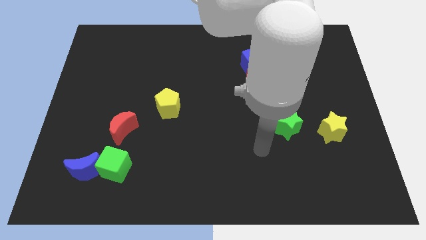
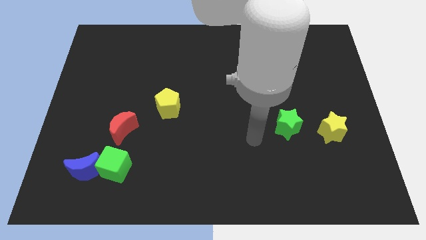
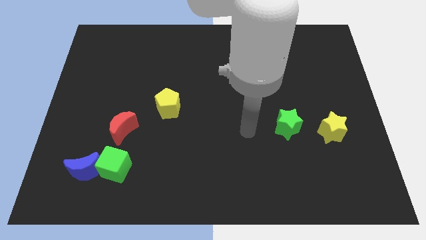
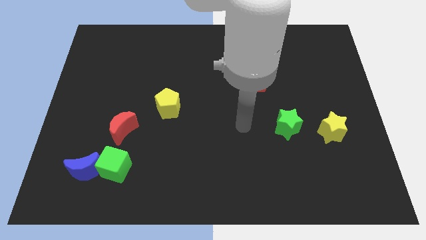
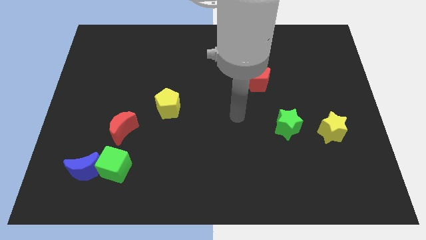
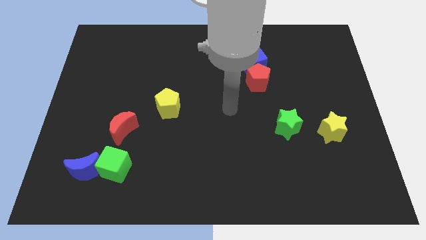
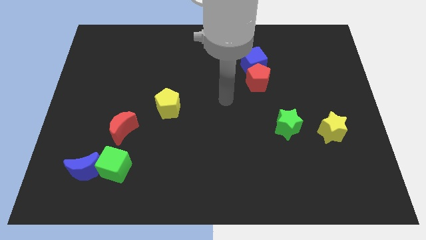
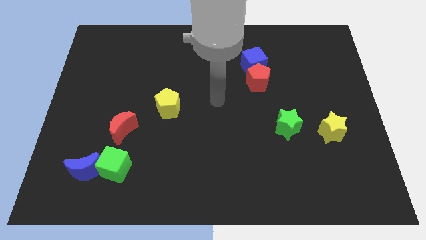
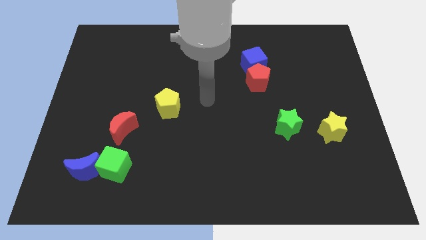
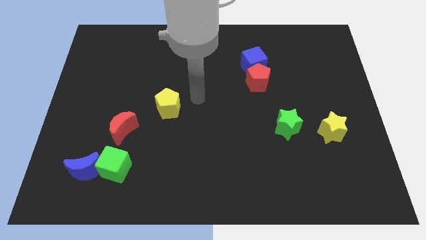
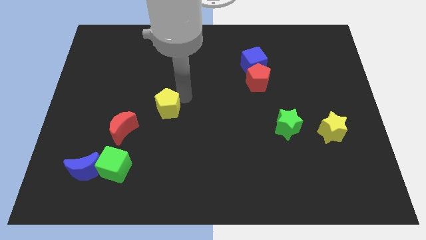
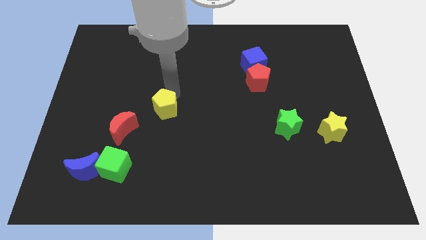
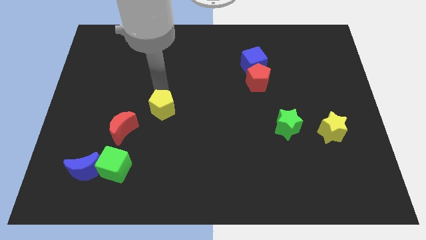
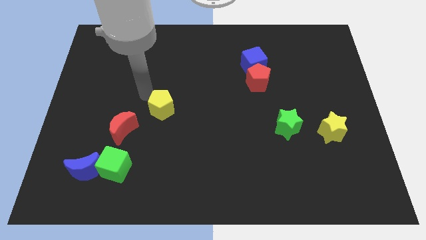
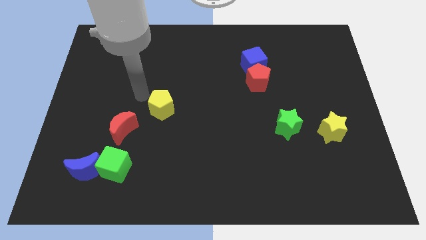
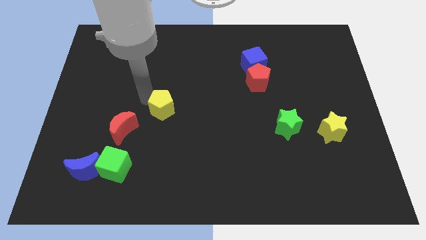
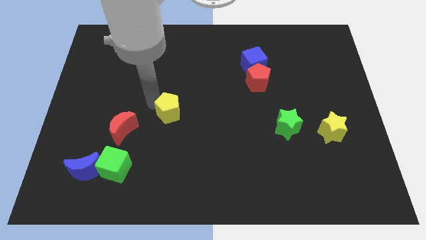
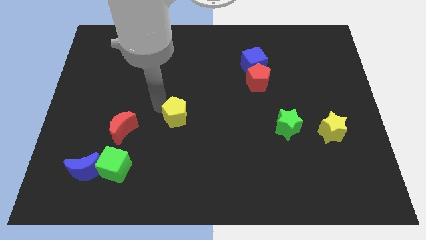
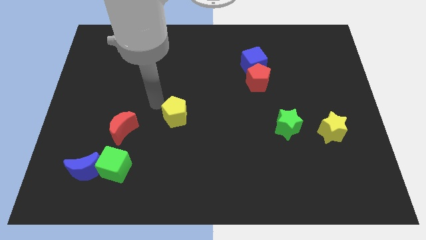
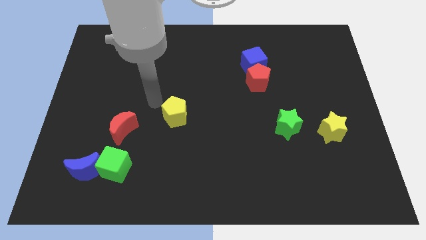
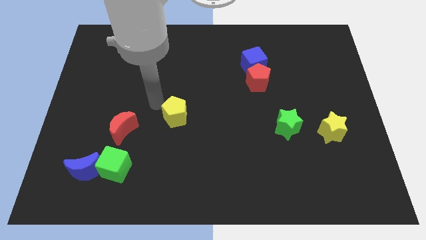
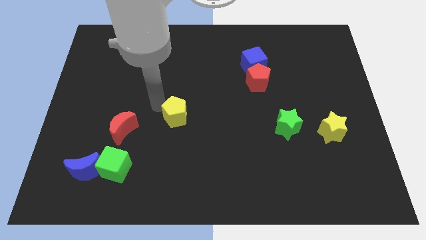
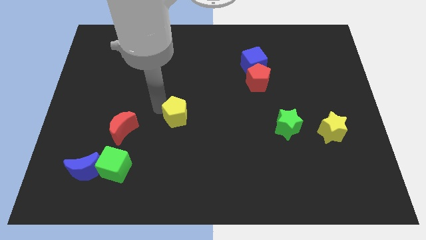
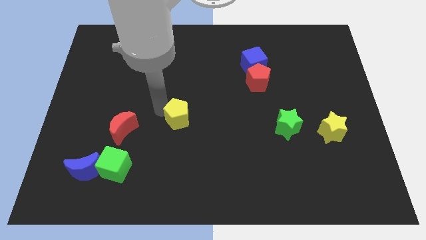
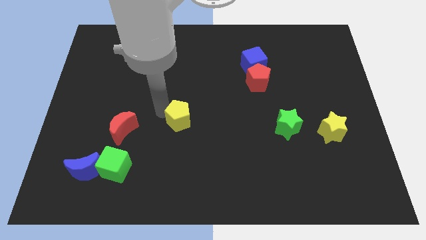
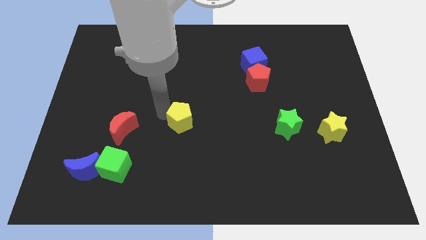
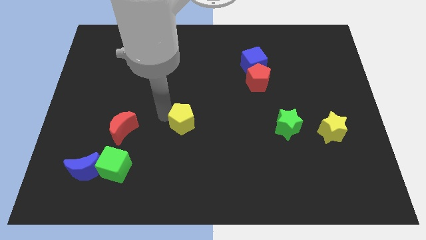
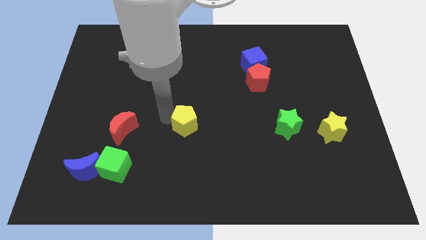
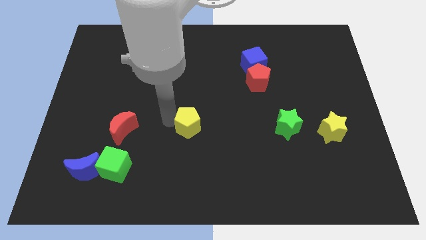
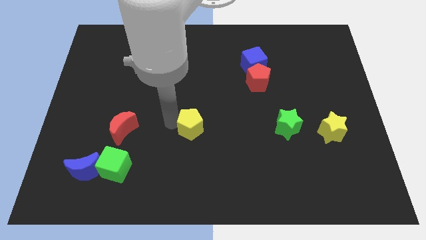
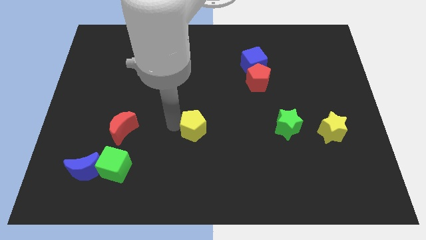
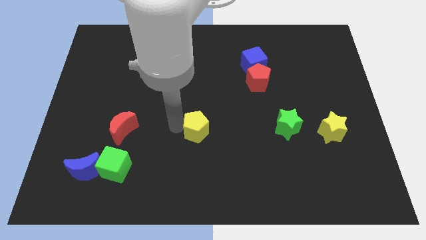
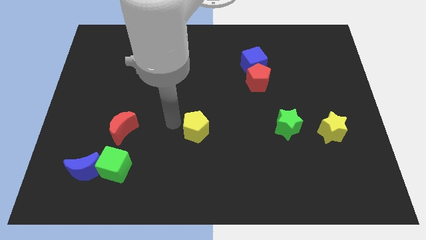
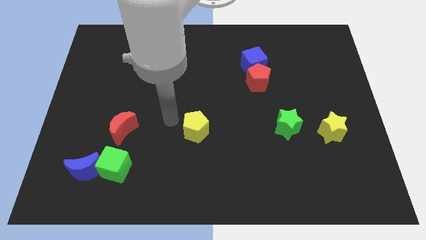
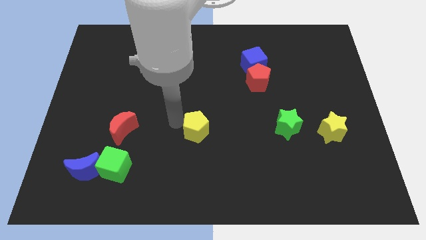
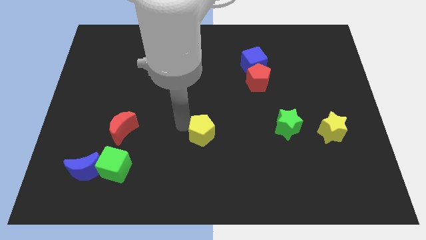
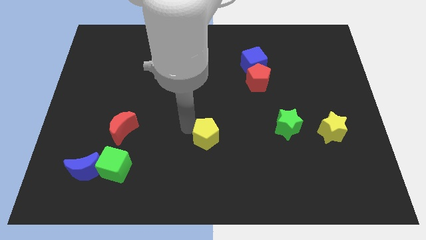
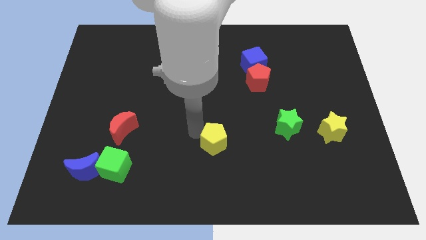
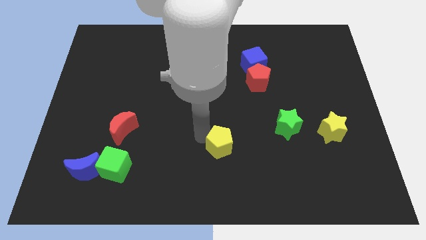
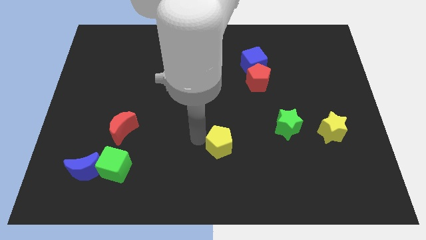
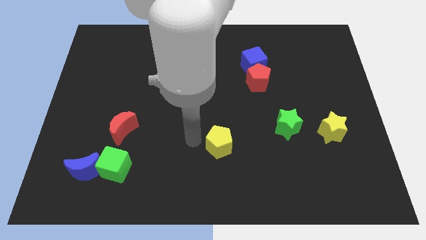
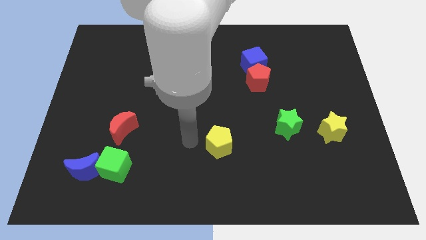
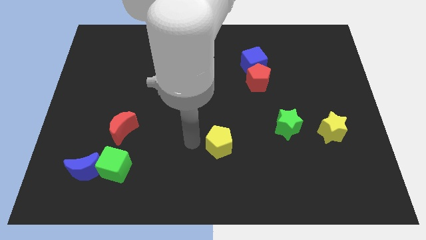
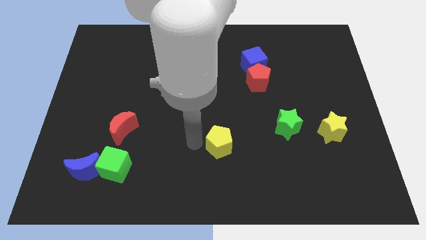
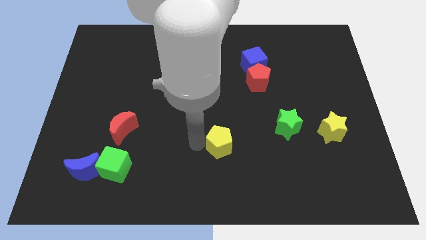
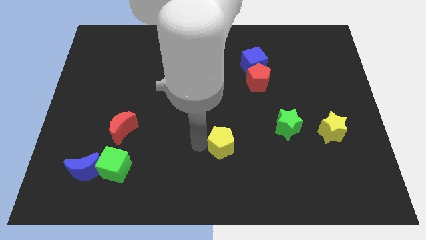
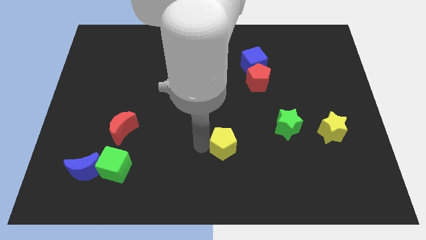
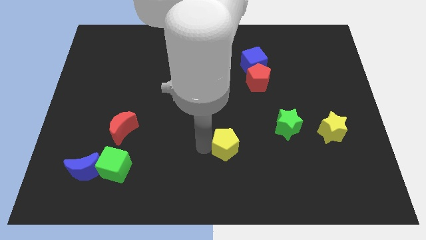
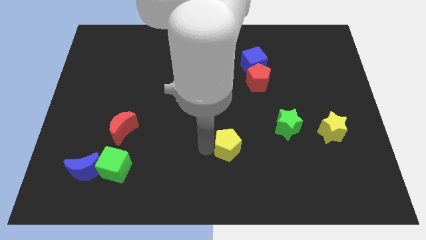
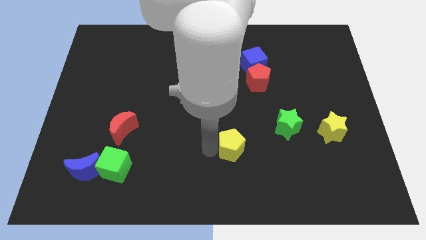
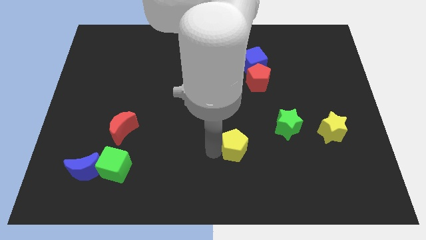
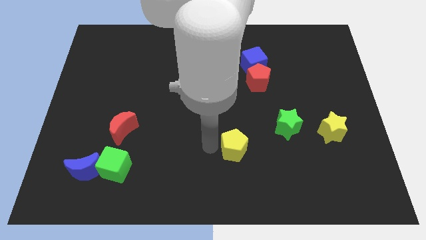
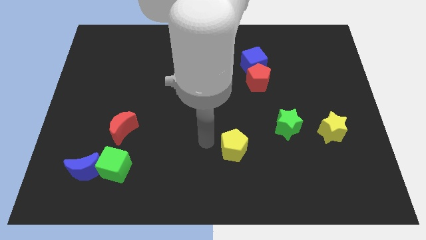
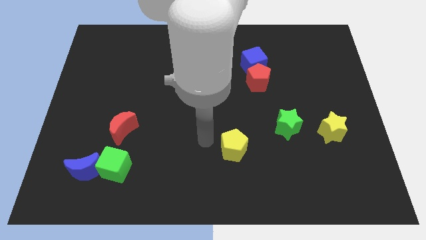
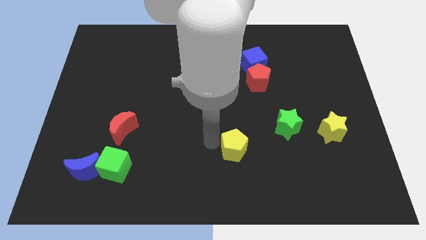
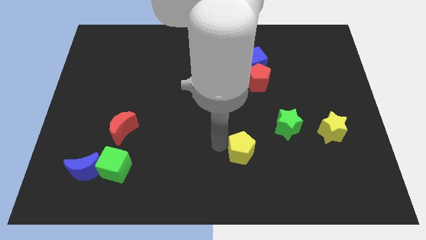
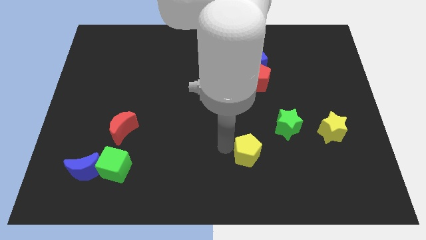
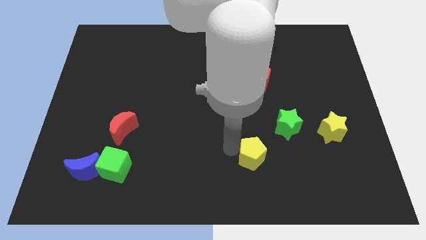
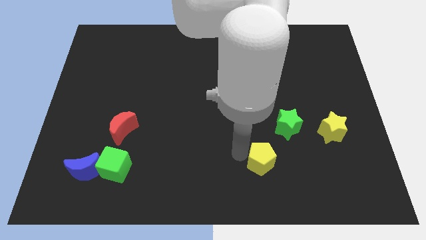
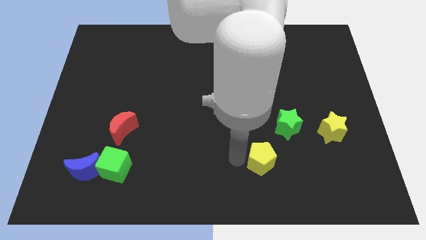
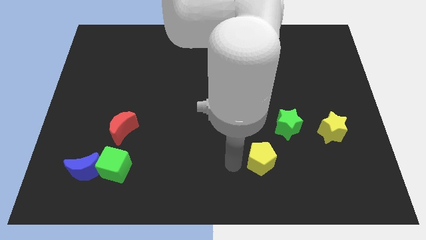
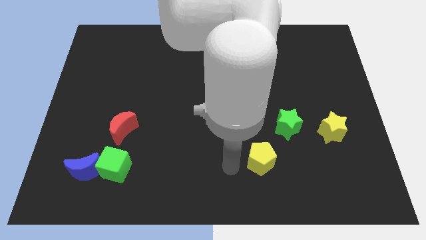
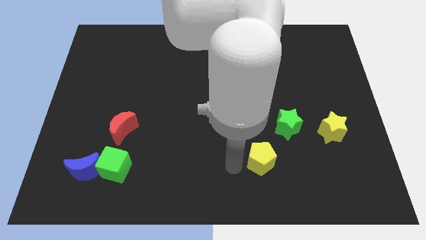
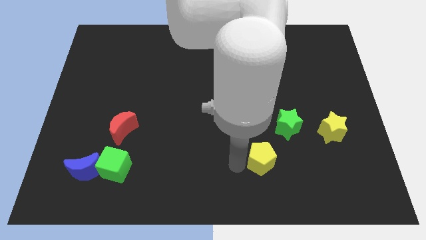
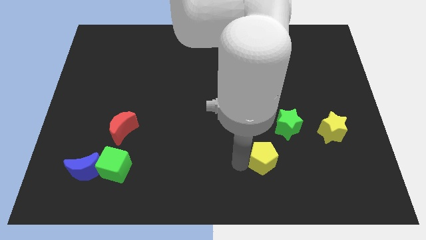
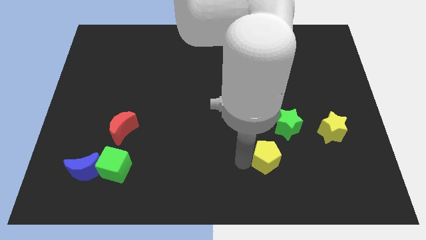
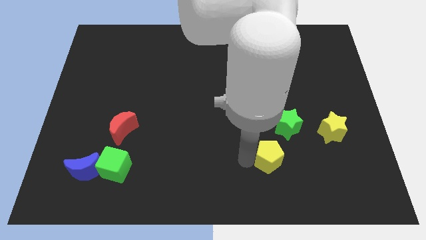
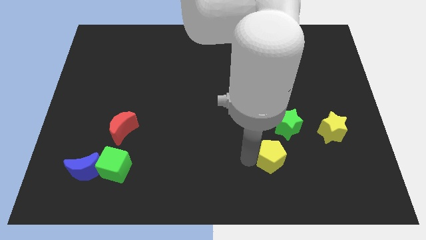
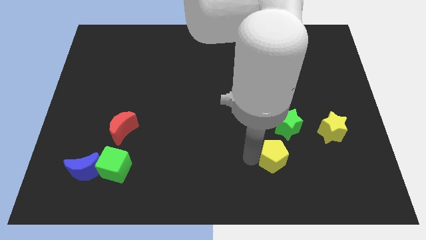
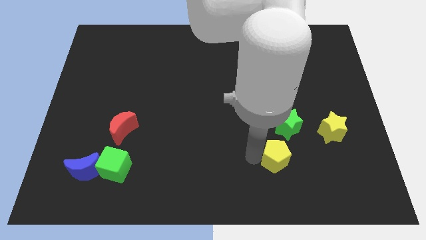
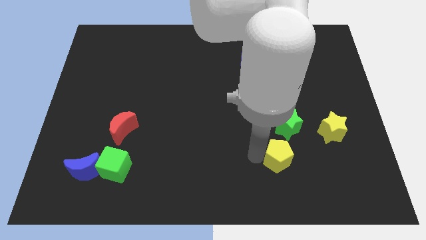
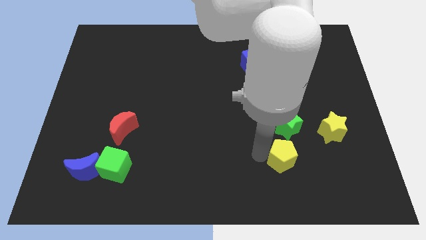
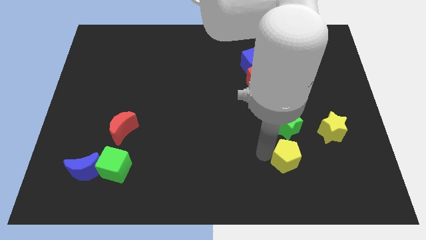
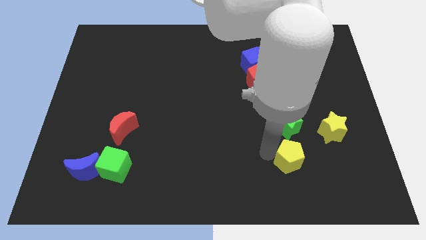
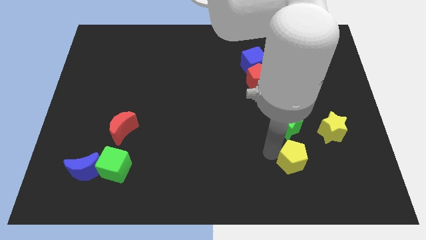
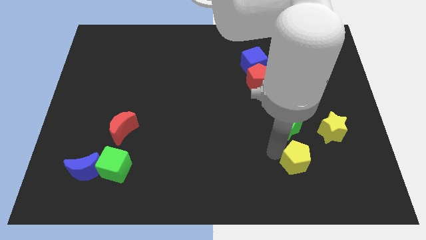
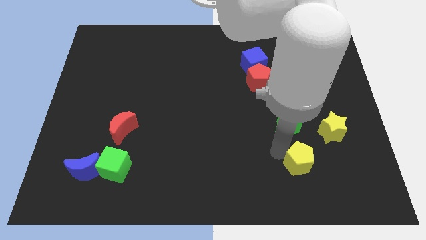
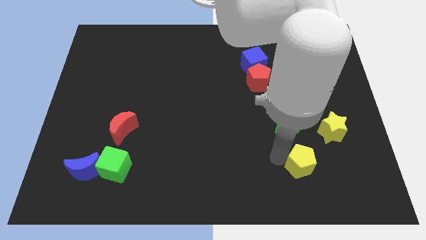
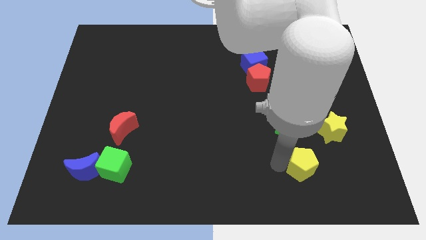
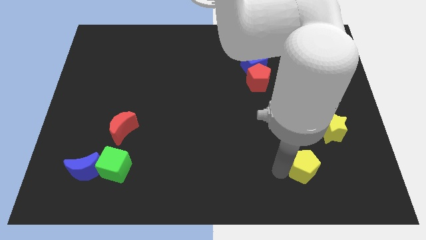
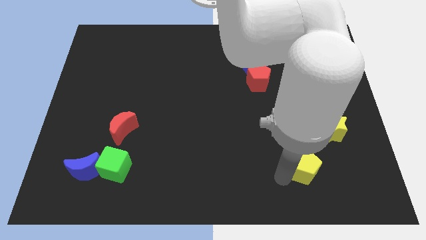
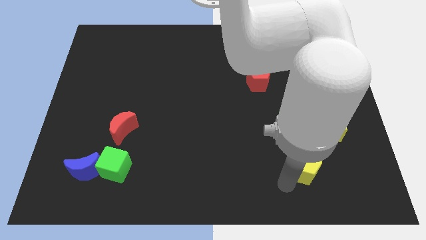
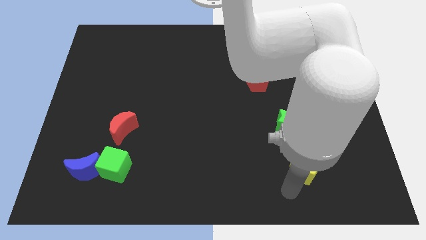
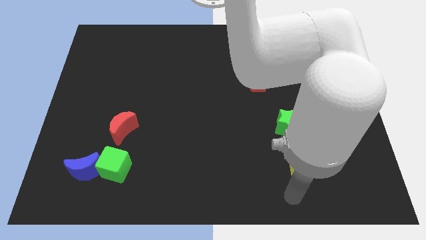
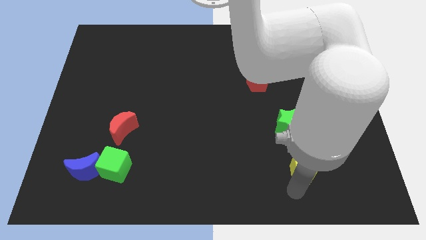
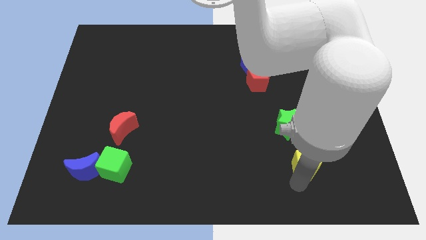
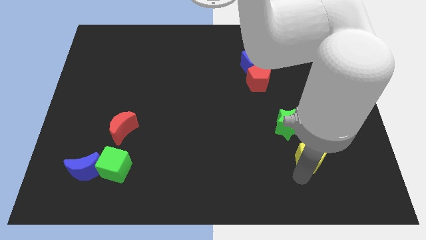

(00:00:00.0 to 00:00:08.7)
move the yellow pentagon to the bottom right side of the green star
